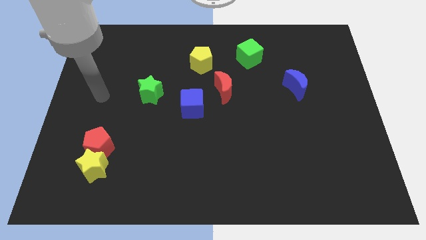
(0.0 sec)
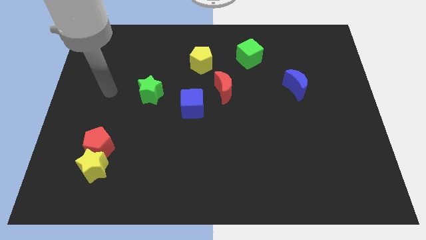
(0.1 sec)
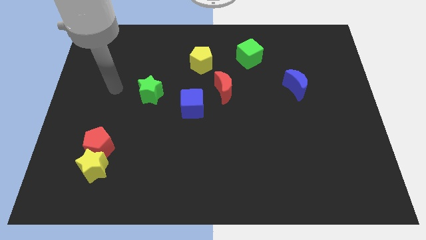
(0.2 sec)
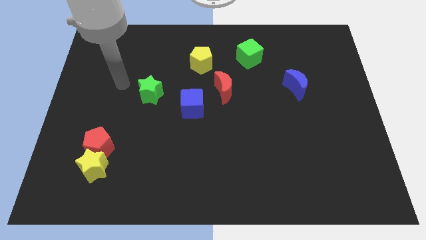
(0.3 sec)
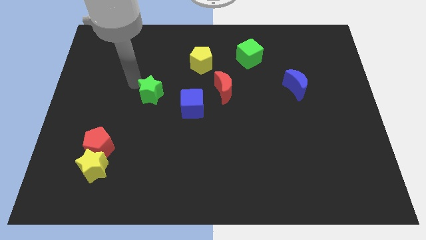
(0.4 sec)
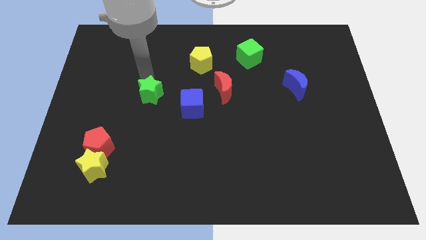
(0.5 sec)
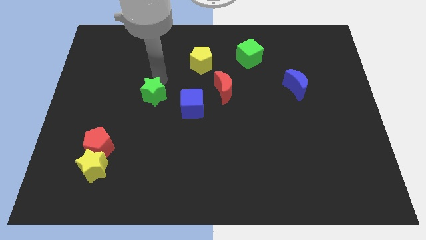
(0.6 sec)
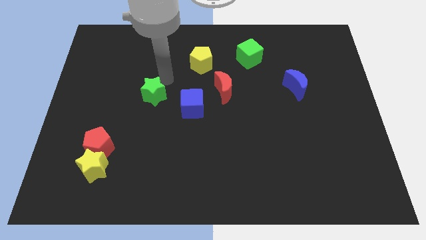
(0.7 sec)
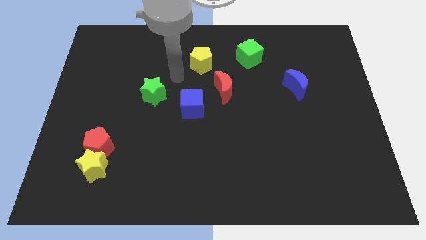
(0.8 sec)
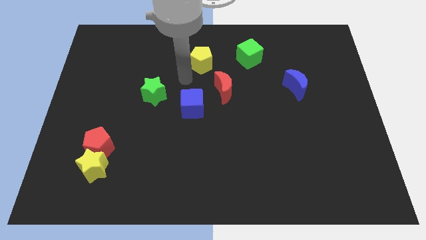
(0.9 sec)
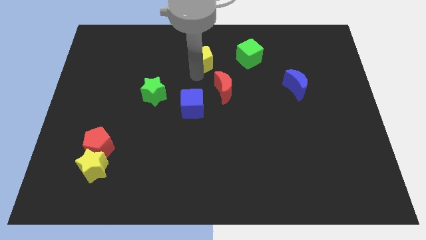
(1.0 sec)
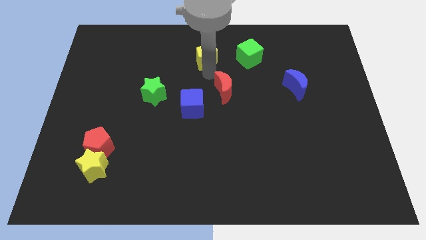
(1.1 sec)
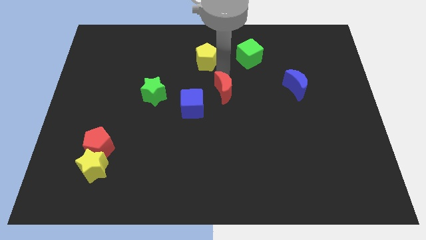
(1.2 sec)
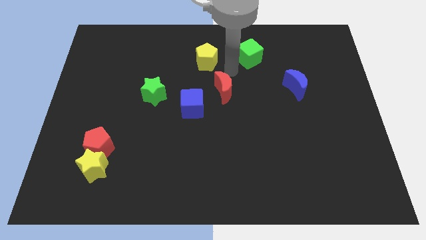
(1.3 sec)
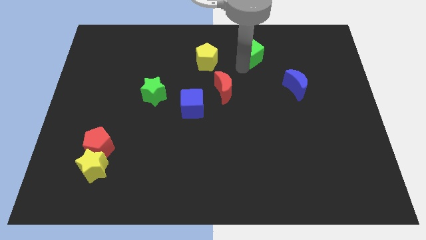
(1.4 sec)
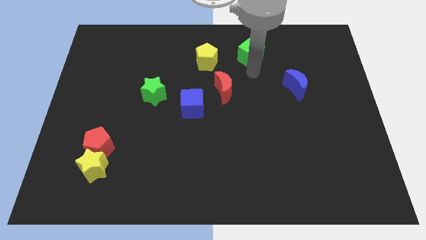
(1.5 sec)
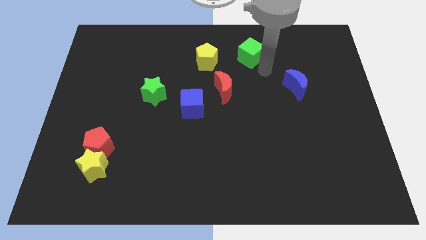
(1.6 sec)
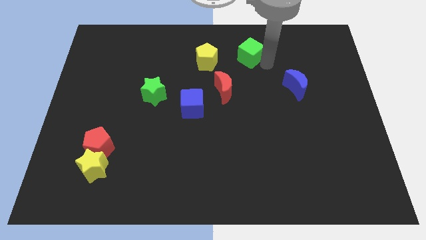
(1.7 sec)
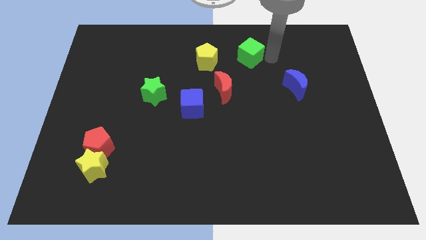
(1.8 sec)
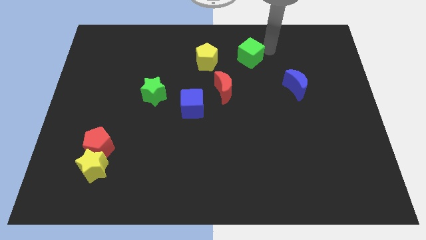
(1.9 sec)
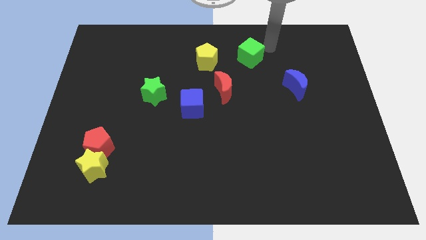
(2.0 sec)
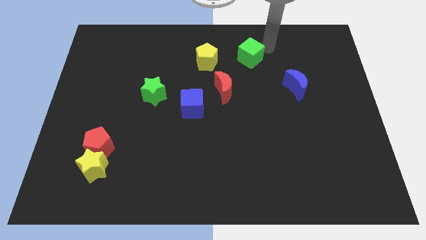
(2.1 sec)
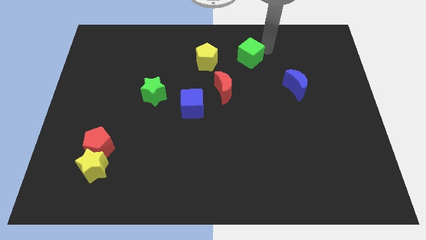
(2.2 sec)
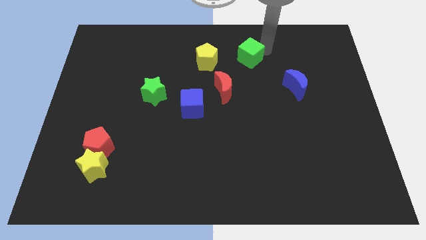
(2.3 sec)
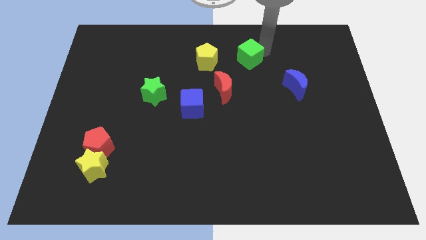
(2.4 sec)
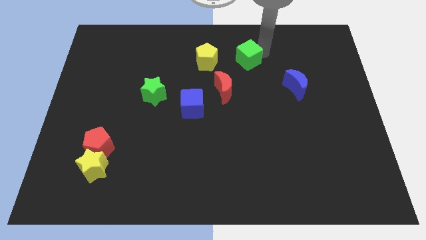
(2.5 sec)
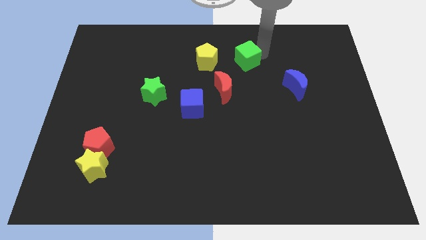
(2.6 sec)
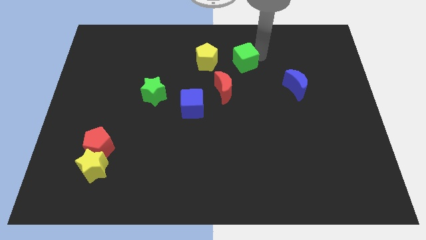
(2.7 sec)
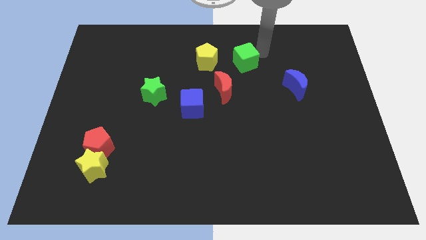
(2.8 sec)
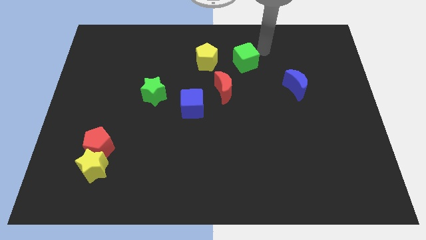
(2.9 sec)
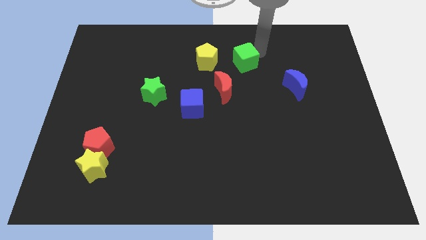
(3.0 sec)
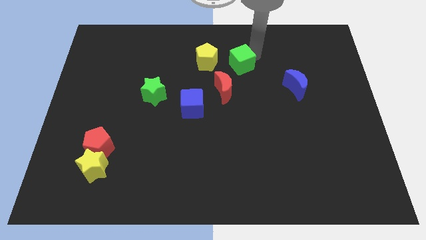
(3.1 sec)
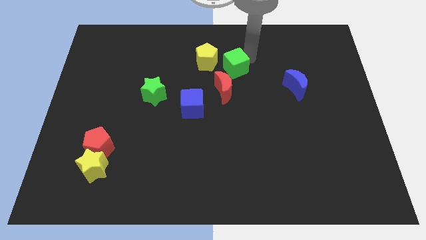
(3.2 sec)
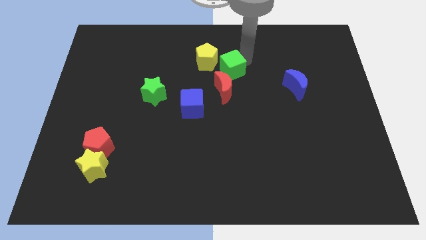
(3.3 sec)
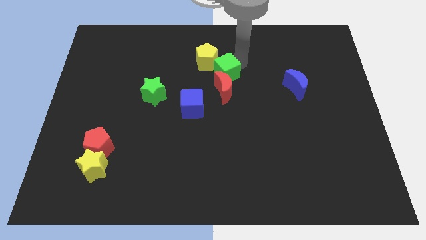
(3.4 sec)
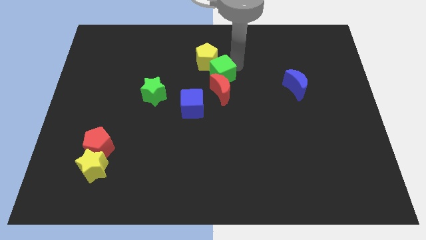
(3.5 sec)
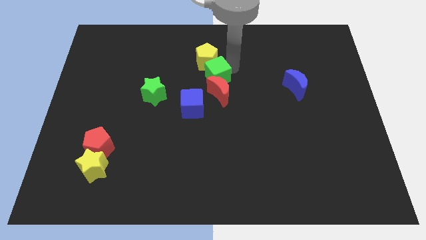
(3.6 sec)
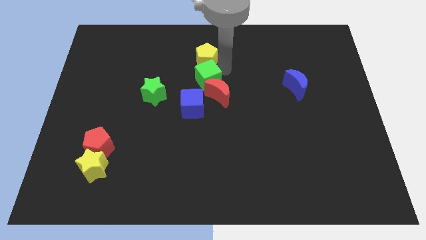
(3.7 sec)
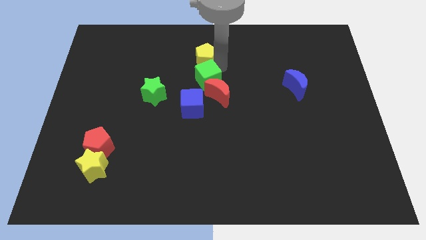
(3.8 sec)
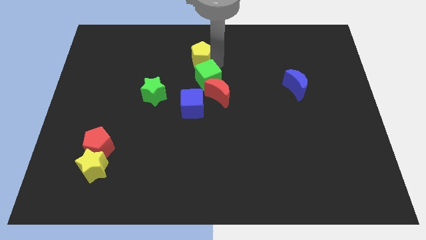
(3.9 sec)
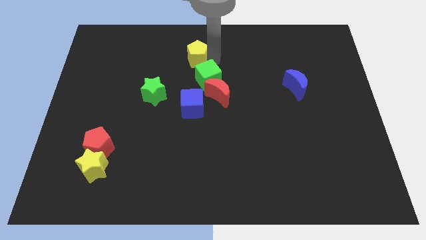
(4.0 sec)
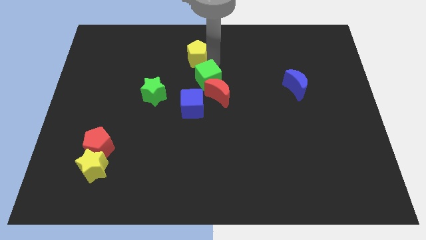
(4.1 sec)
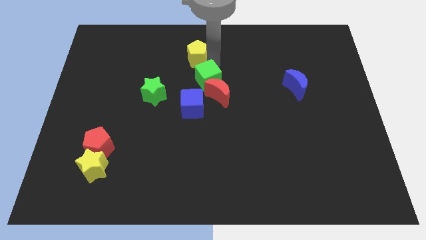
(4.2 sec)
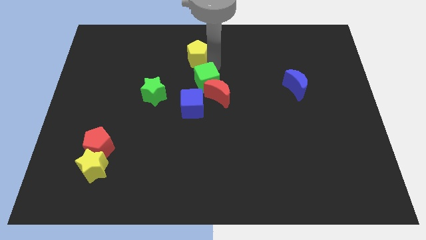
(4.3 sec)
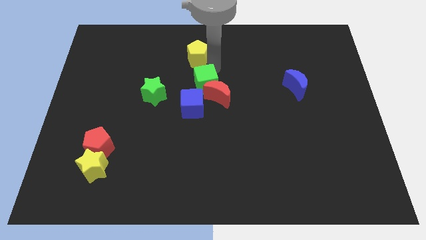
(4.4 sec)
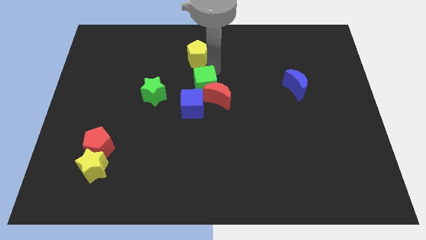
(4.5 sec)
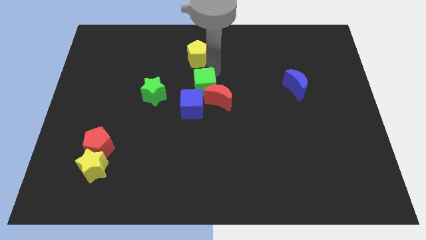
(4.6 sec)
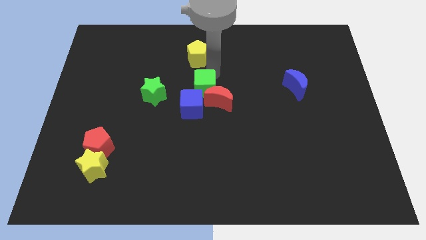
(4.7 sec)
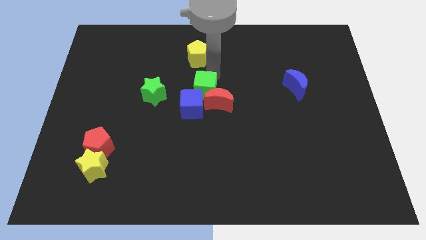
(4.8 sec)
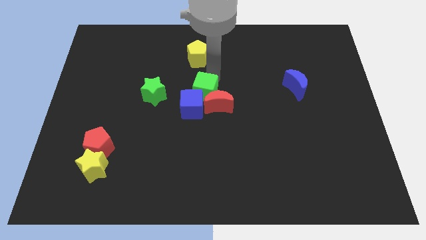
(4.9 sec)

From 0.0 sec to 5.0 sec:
slide the green cube towards the blue cube

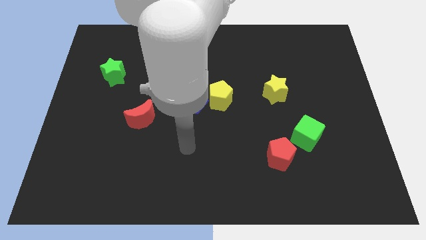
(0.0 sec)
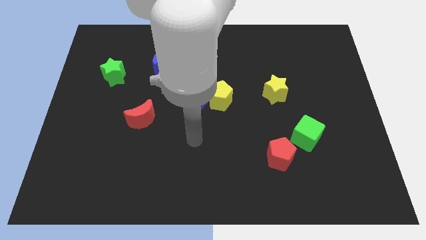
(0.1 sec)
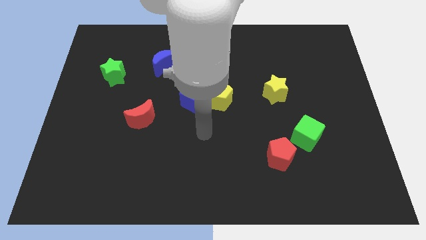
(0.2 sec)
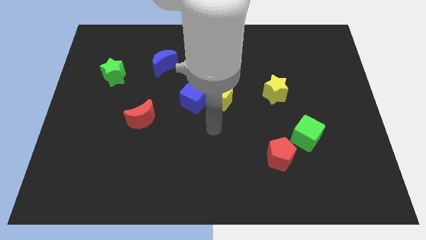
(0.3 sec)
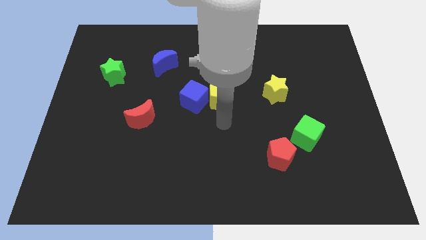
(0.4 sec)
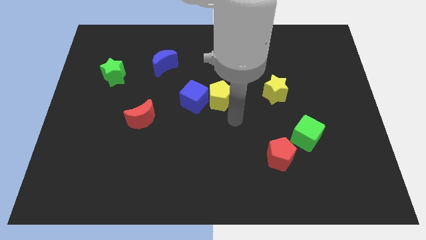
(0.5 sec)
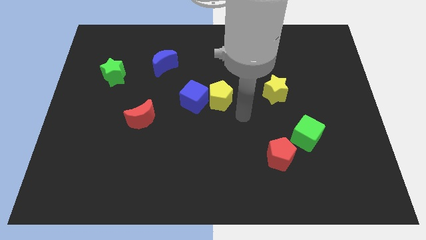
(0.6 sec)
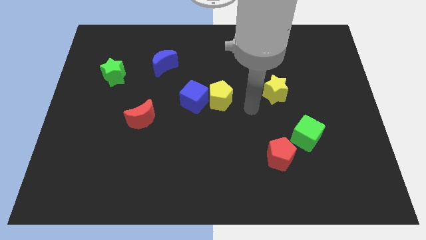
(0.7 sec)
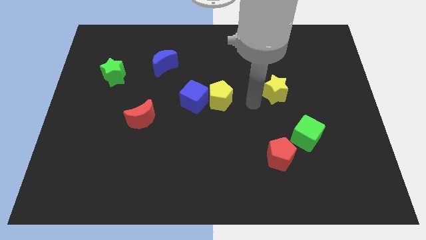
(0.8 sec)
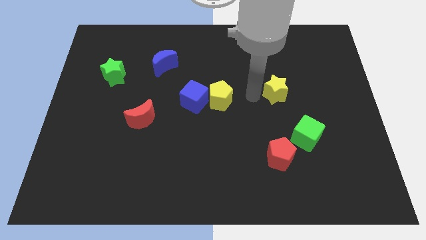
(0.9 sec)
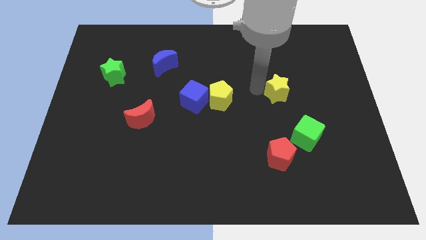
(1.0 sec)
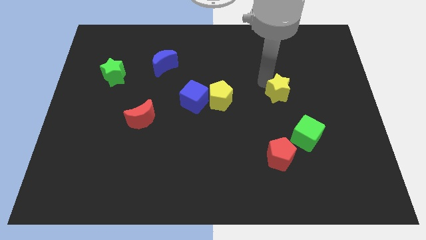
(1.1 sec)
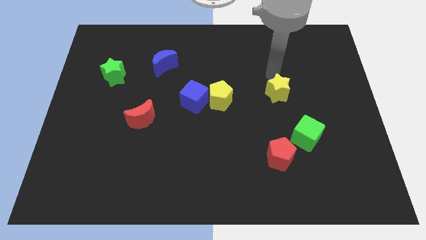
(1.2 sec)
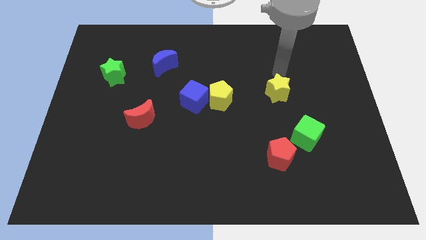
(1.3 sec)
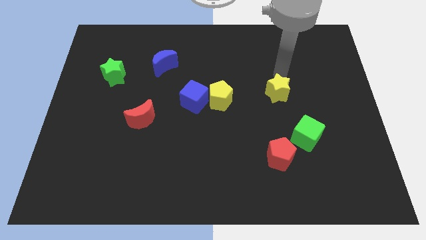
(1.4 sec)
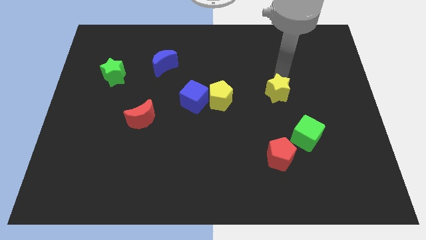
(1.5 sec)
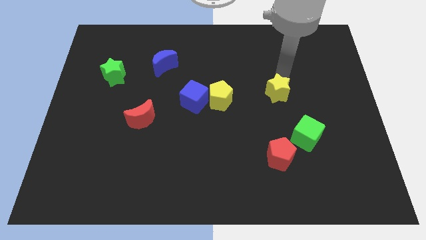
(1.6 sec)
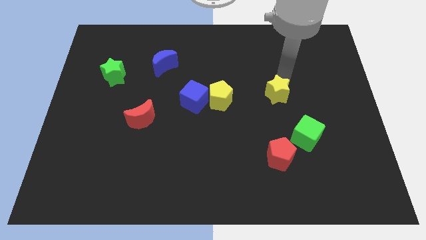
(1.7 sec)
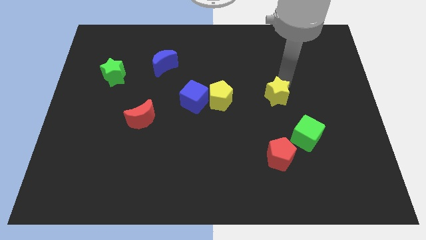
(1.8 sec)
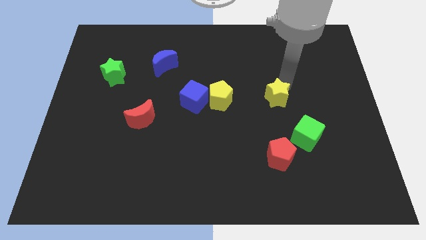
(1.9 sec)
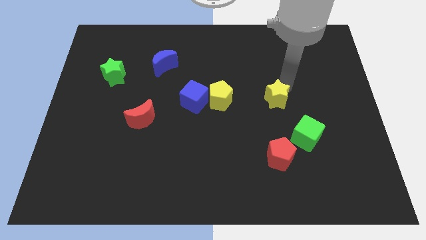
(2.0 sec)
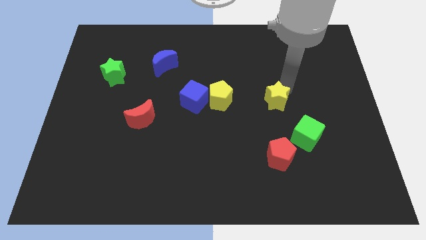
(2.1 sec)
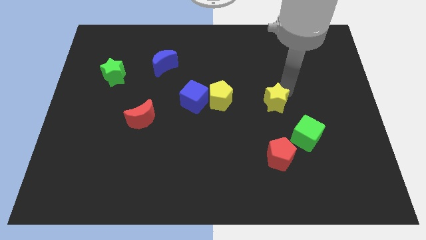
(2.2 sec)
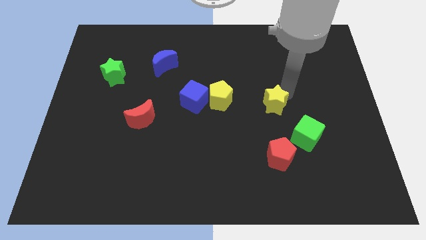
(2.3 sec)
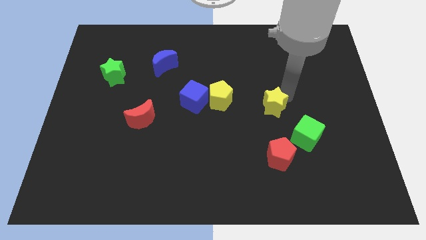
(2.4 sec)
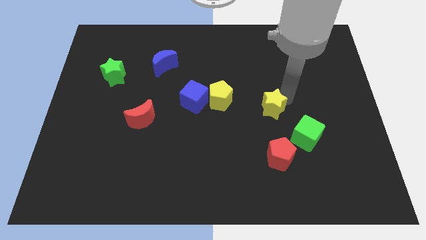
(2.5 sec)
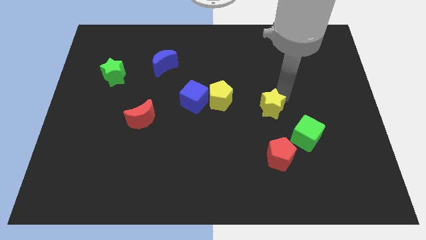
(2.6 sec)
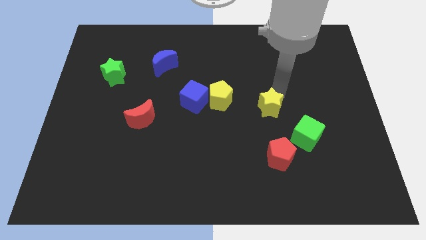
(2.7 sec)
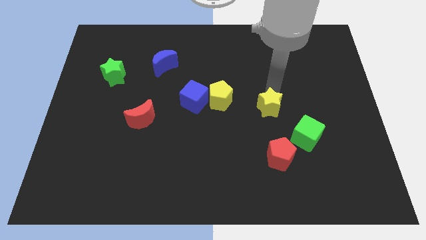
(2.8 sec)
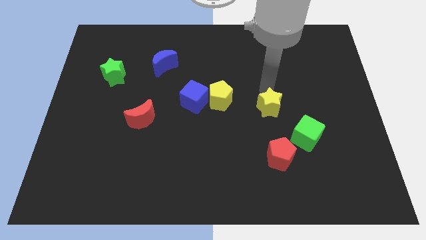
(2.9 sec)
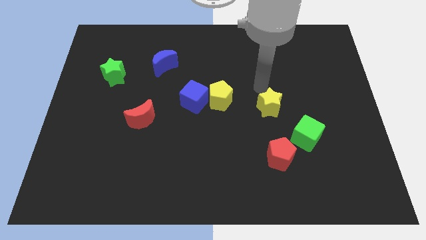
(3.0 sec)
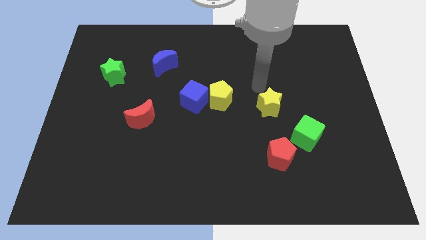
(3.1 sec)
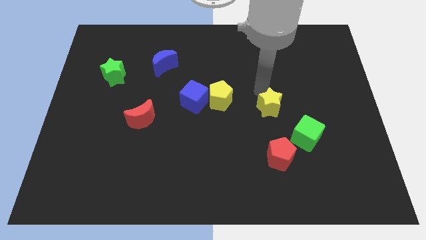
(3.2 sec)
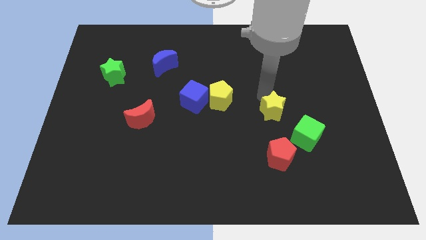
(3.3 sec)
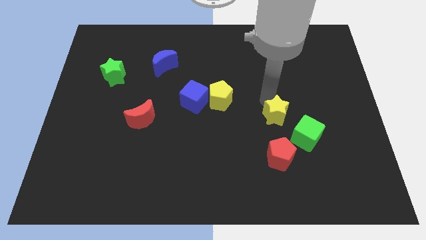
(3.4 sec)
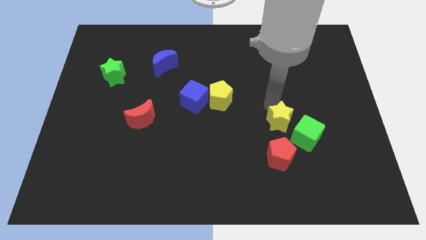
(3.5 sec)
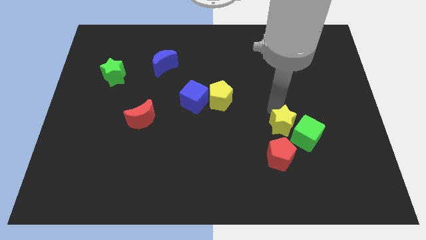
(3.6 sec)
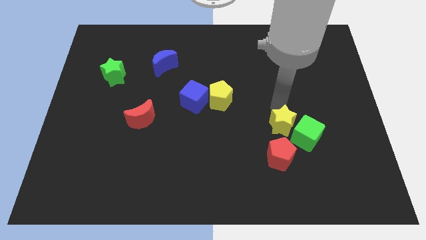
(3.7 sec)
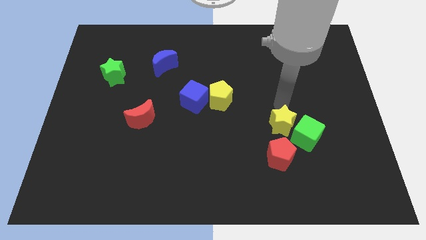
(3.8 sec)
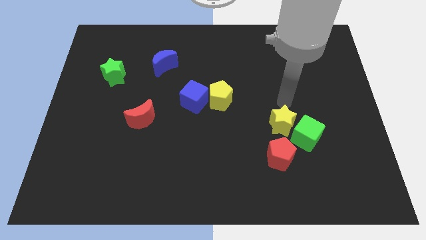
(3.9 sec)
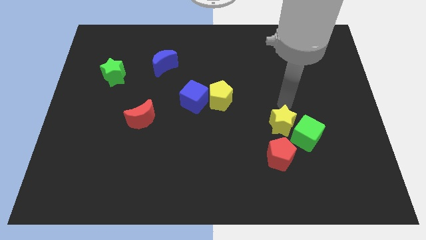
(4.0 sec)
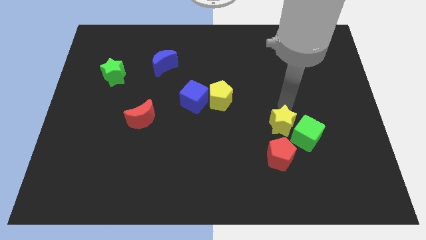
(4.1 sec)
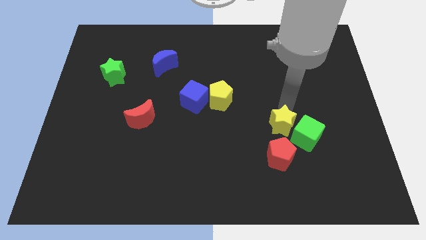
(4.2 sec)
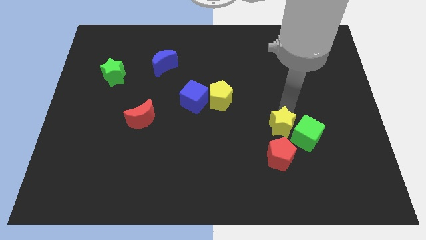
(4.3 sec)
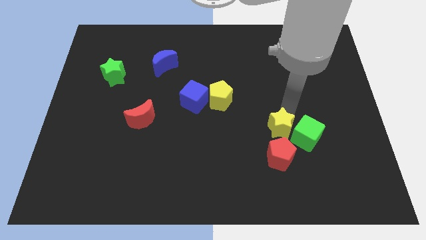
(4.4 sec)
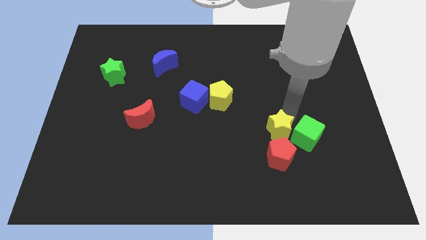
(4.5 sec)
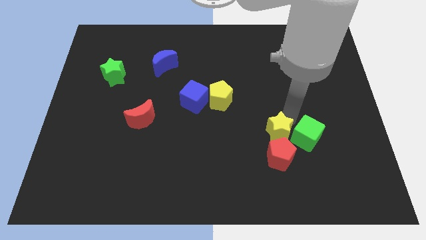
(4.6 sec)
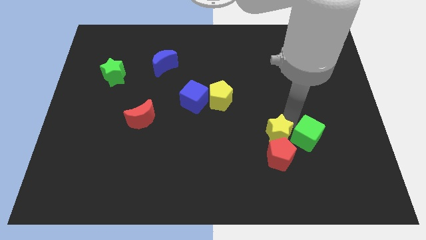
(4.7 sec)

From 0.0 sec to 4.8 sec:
move the yellow star next to the red pentagon
